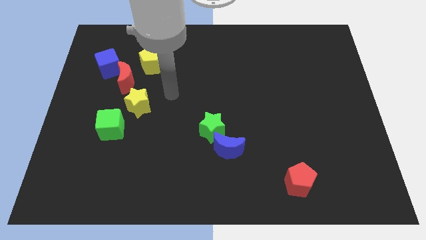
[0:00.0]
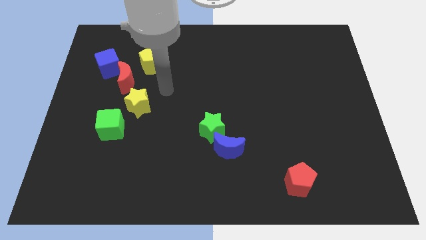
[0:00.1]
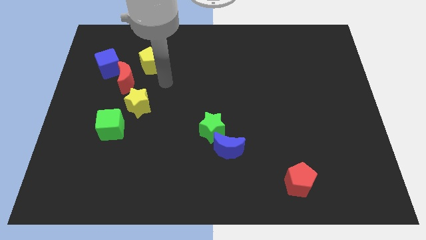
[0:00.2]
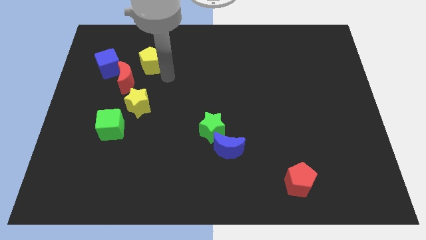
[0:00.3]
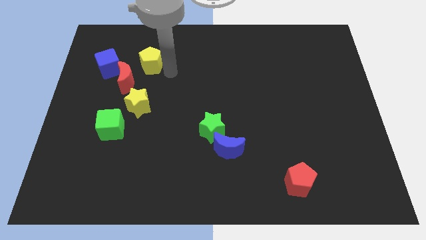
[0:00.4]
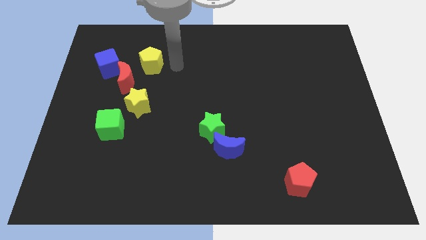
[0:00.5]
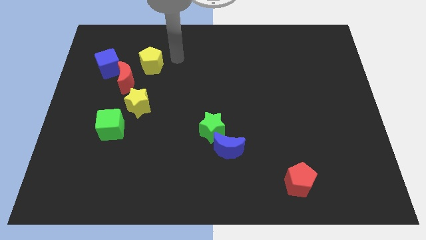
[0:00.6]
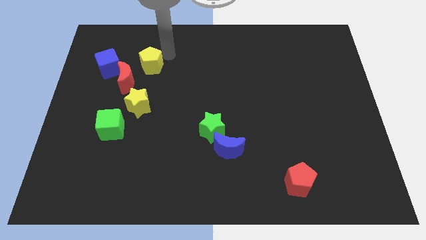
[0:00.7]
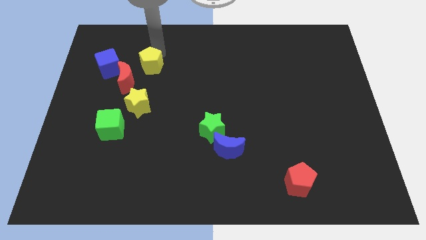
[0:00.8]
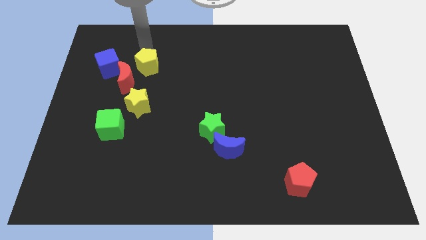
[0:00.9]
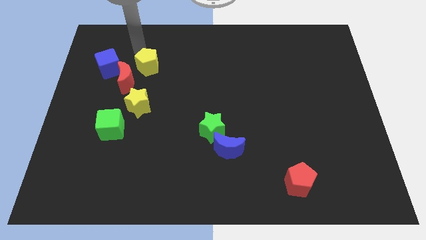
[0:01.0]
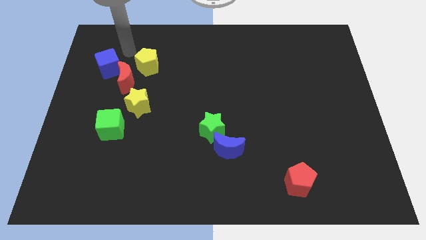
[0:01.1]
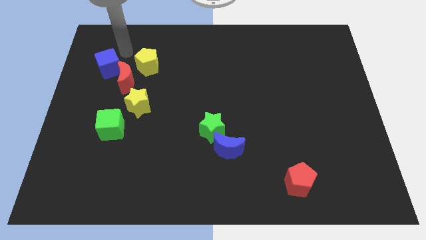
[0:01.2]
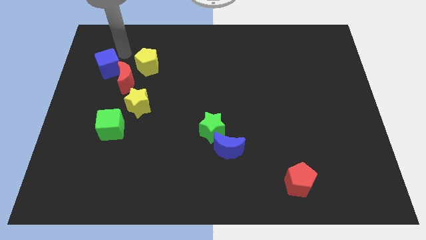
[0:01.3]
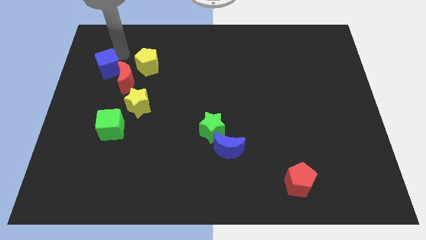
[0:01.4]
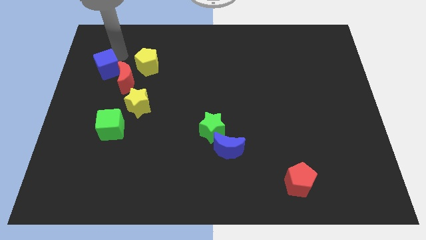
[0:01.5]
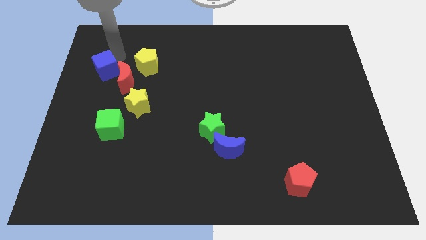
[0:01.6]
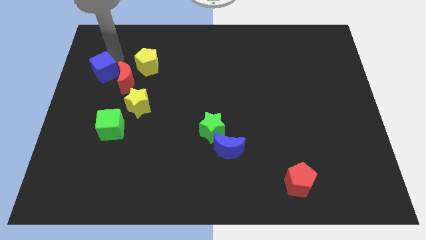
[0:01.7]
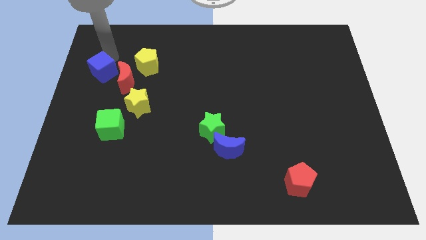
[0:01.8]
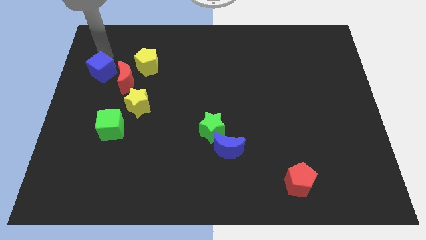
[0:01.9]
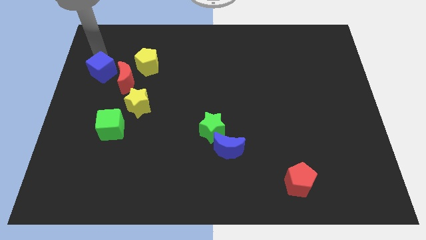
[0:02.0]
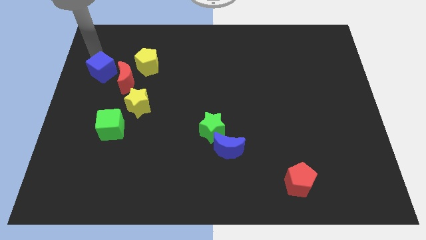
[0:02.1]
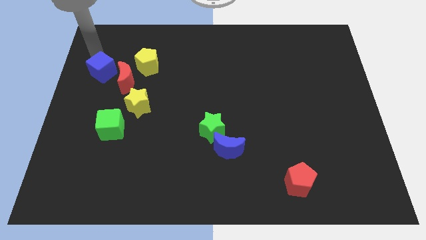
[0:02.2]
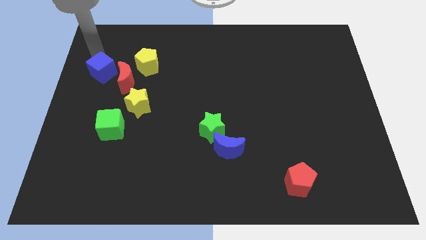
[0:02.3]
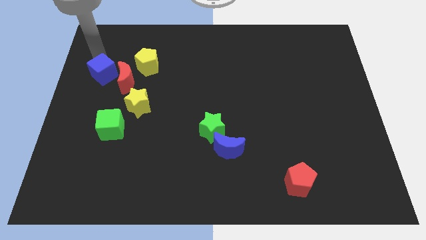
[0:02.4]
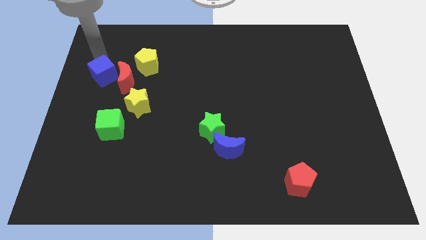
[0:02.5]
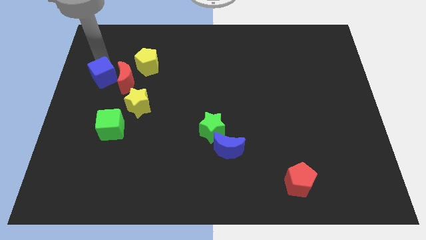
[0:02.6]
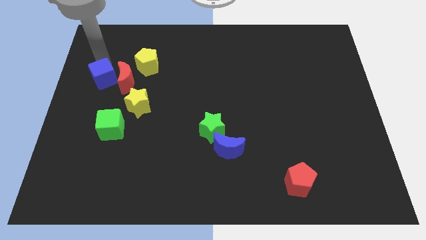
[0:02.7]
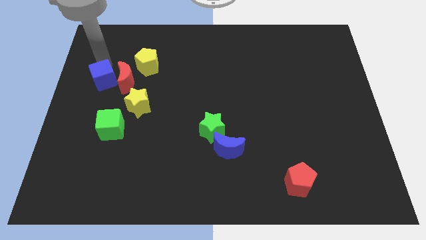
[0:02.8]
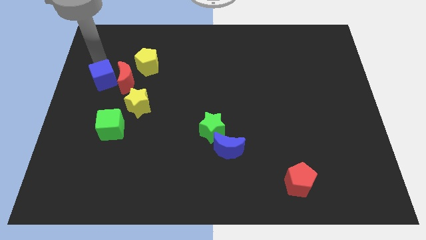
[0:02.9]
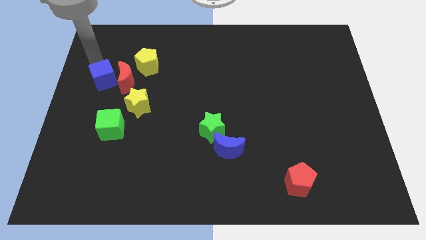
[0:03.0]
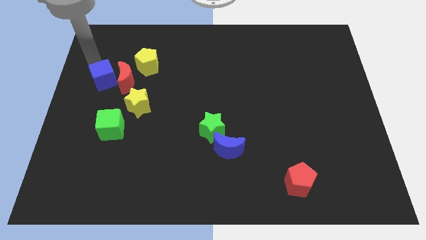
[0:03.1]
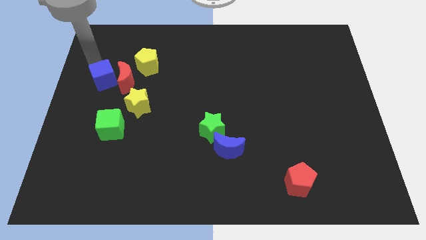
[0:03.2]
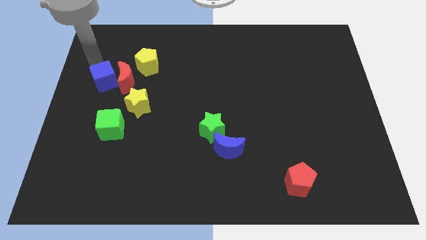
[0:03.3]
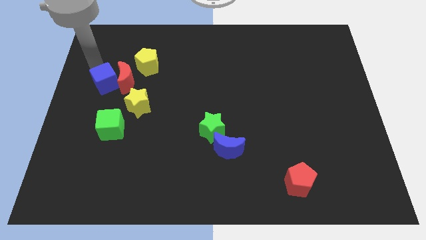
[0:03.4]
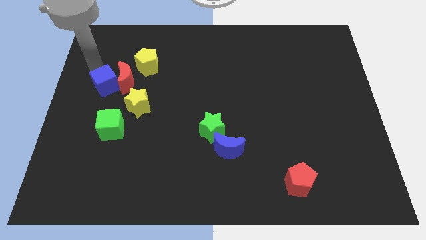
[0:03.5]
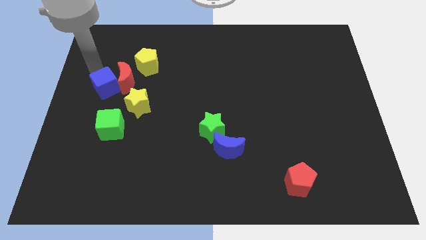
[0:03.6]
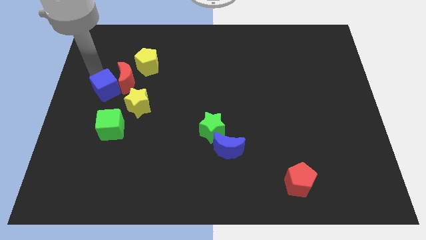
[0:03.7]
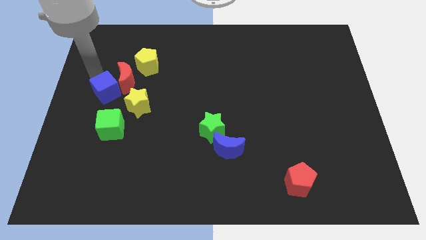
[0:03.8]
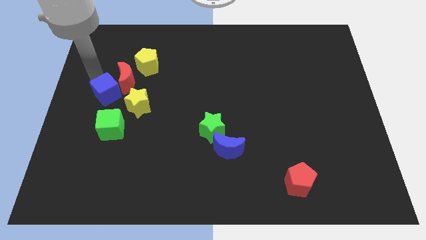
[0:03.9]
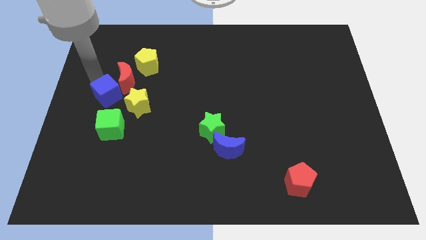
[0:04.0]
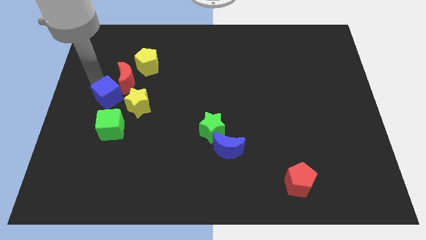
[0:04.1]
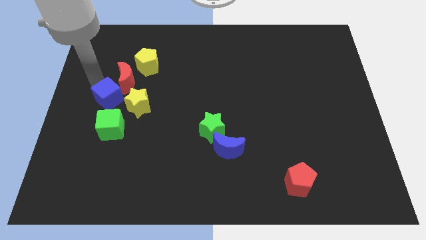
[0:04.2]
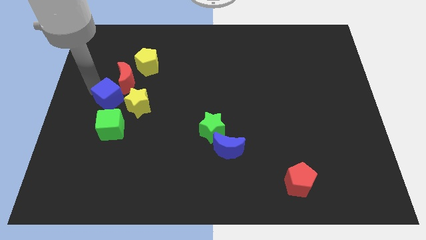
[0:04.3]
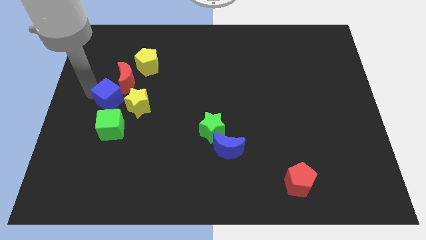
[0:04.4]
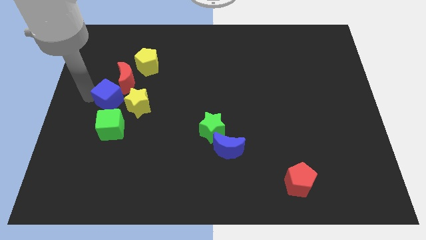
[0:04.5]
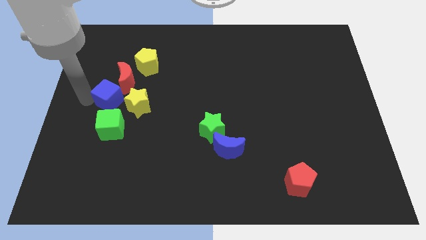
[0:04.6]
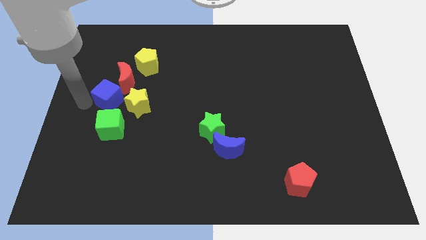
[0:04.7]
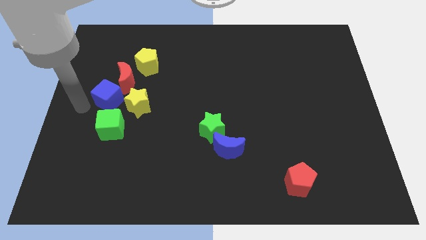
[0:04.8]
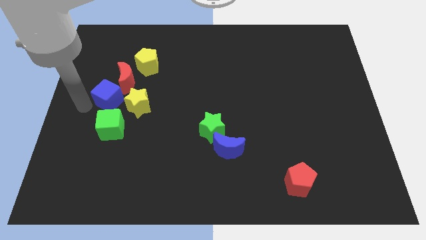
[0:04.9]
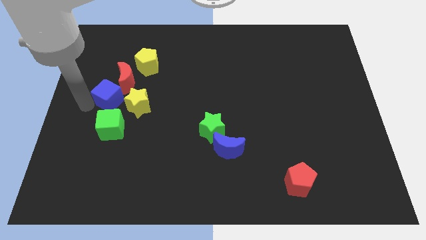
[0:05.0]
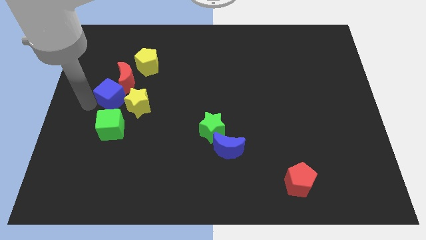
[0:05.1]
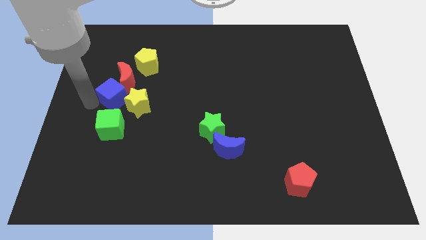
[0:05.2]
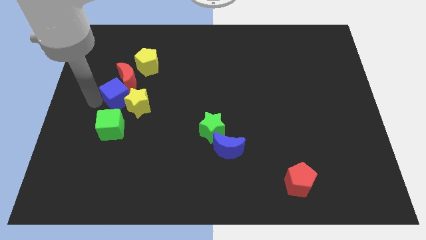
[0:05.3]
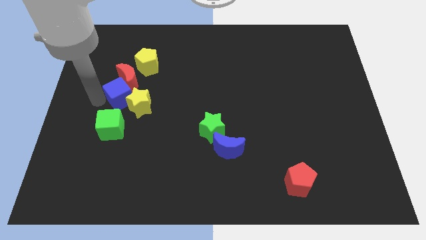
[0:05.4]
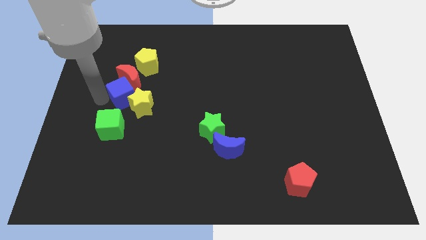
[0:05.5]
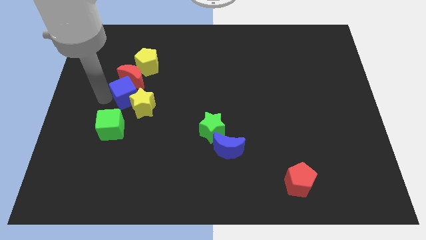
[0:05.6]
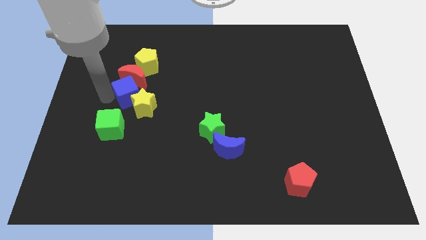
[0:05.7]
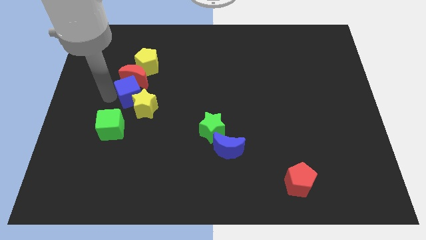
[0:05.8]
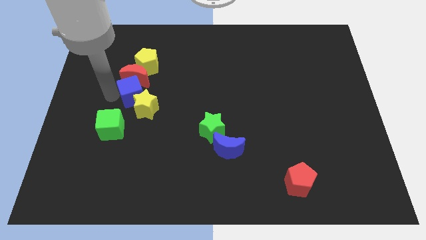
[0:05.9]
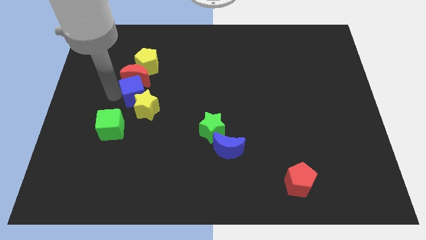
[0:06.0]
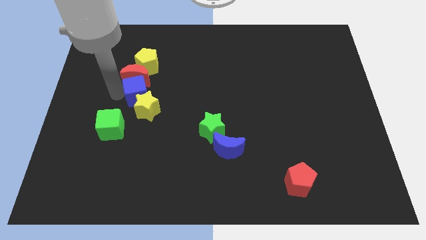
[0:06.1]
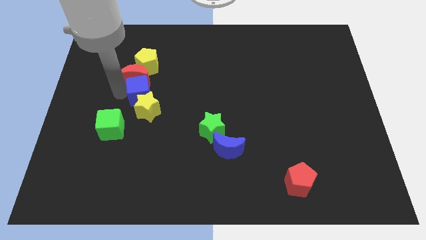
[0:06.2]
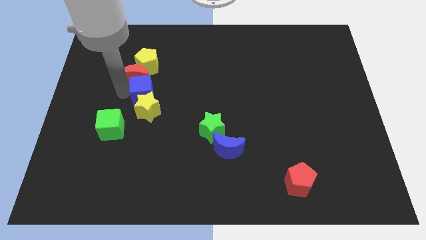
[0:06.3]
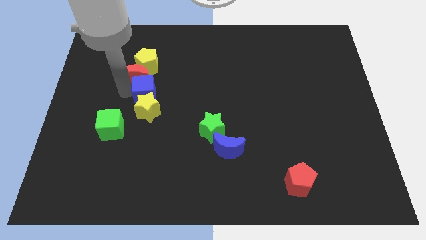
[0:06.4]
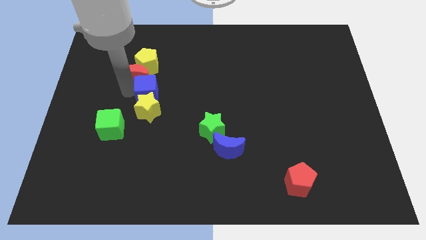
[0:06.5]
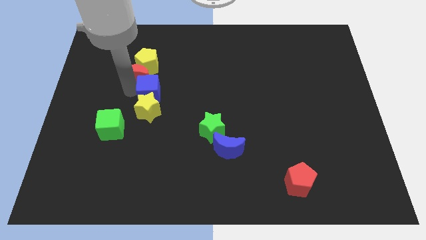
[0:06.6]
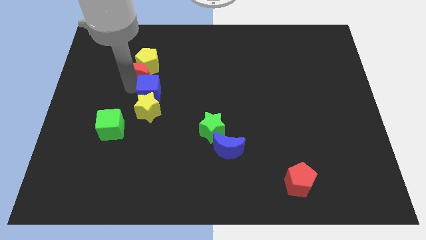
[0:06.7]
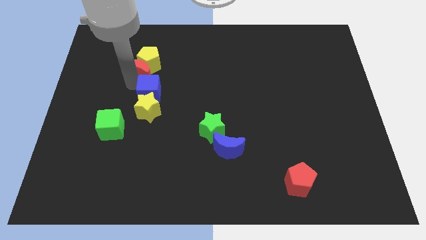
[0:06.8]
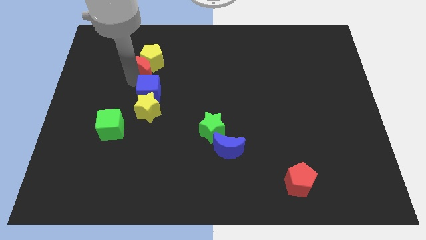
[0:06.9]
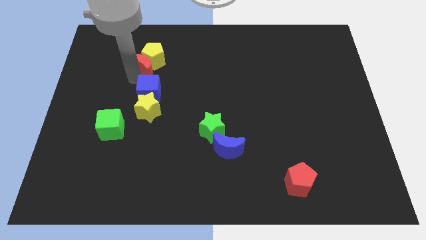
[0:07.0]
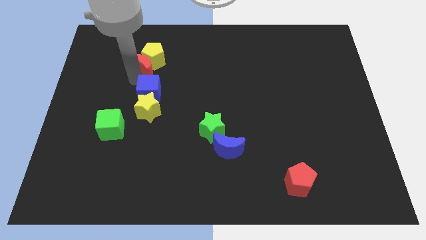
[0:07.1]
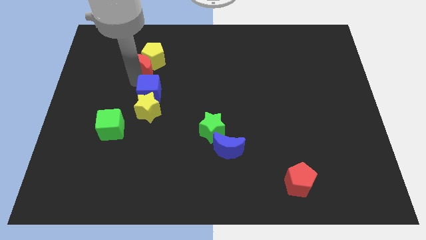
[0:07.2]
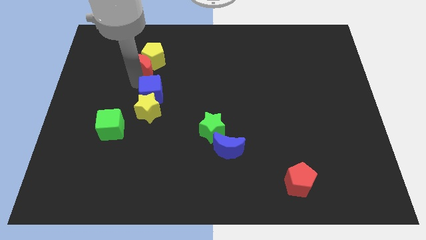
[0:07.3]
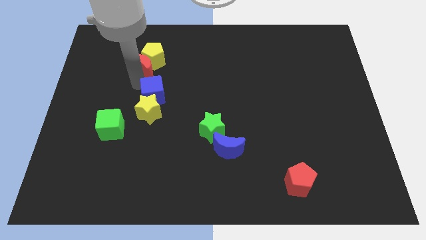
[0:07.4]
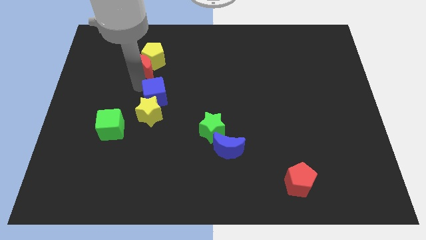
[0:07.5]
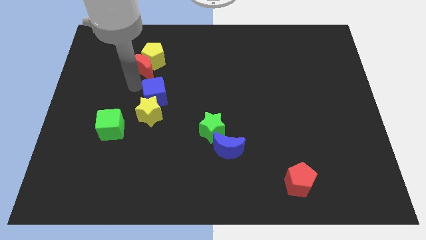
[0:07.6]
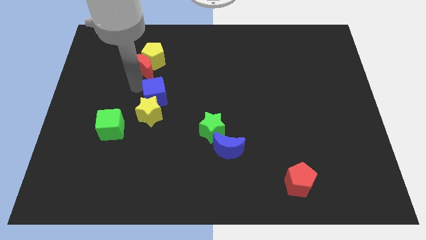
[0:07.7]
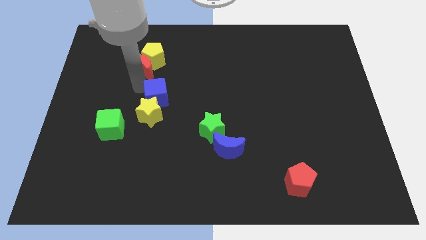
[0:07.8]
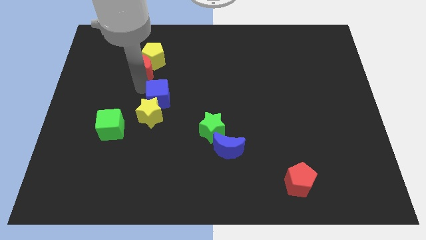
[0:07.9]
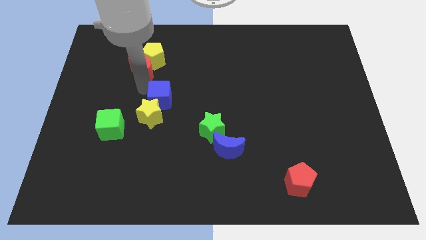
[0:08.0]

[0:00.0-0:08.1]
push the blue cube to the center
